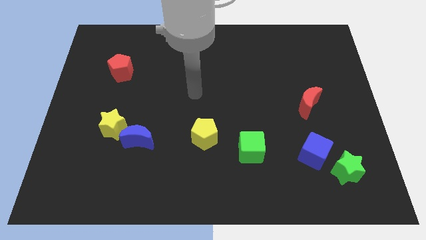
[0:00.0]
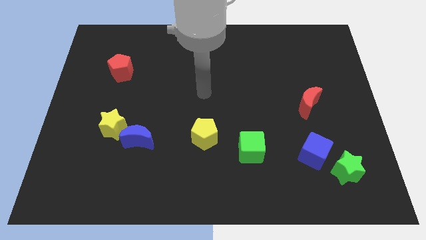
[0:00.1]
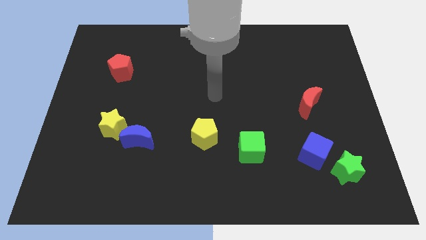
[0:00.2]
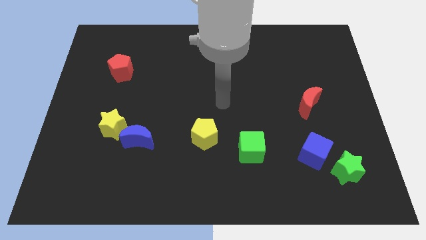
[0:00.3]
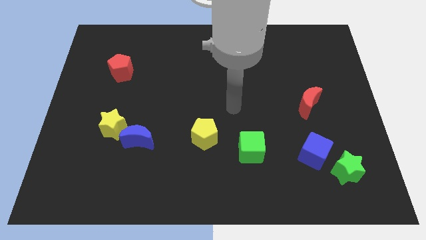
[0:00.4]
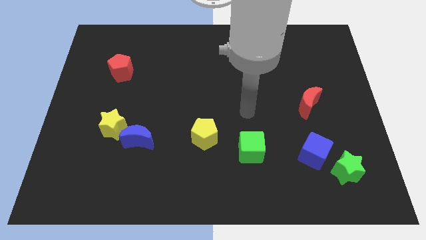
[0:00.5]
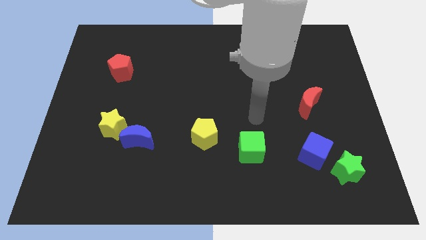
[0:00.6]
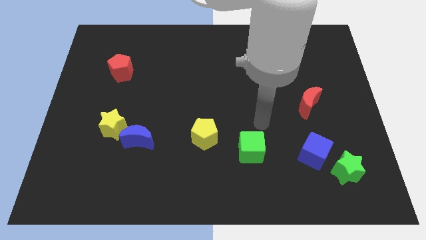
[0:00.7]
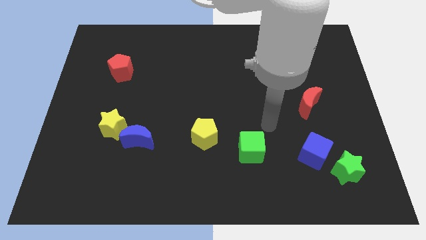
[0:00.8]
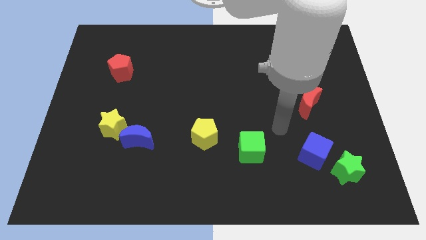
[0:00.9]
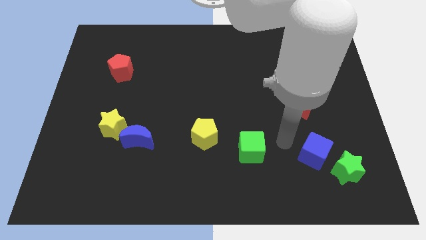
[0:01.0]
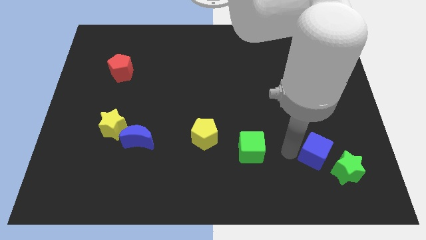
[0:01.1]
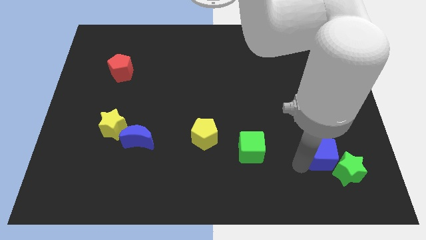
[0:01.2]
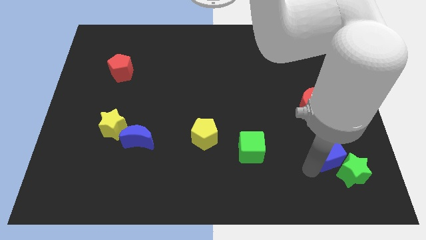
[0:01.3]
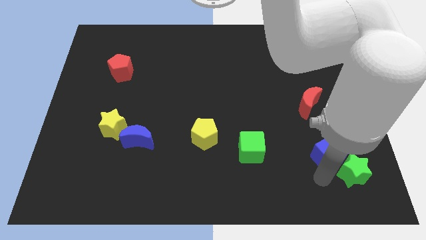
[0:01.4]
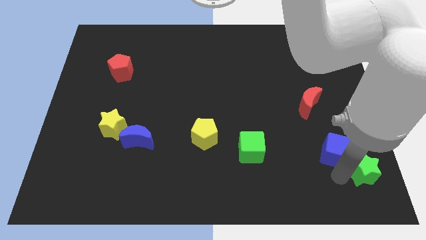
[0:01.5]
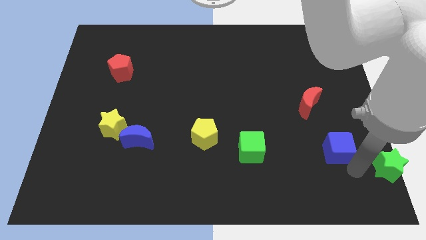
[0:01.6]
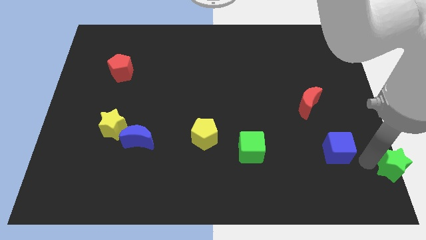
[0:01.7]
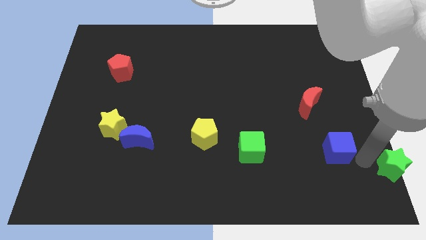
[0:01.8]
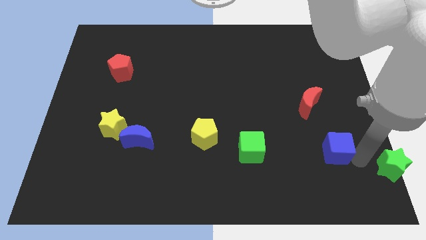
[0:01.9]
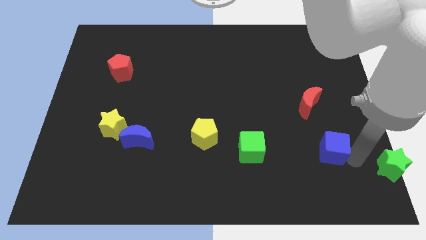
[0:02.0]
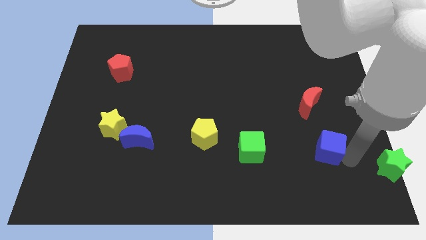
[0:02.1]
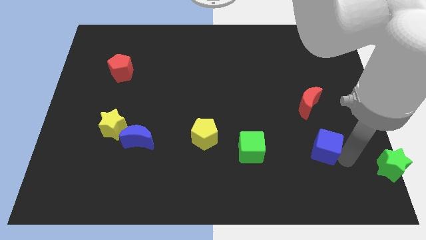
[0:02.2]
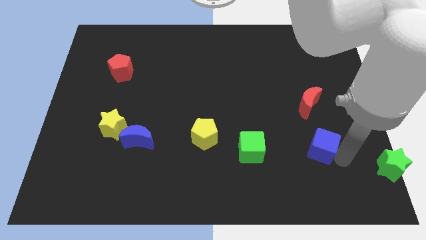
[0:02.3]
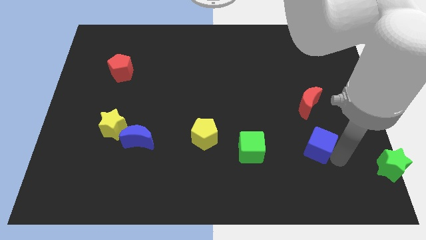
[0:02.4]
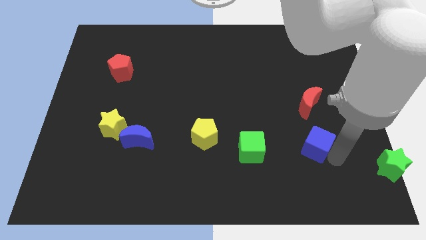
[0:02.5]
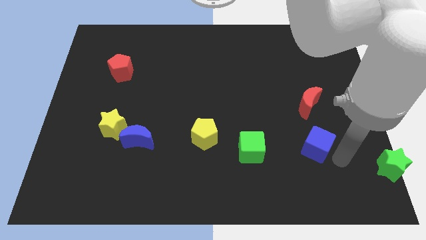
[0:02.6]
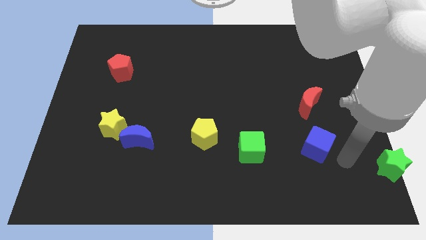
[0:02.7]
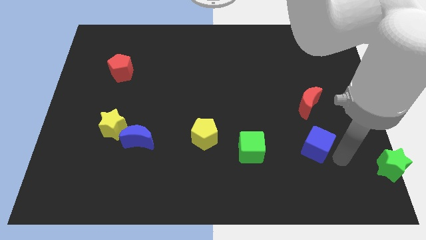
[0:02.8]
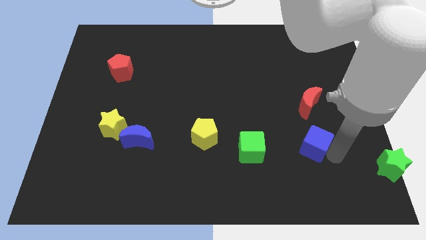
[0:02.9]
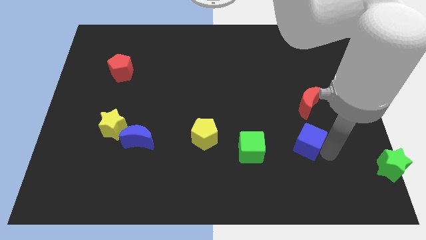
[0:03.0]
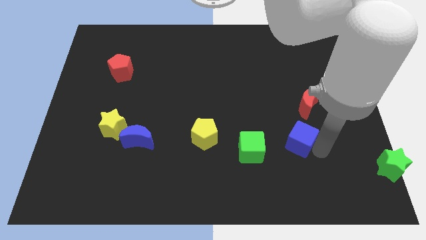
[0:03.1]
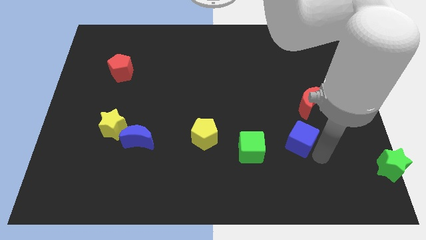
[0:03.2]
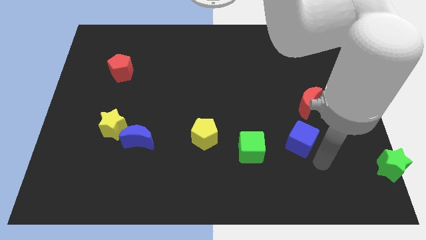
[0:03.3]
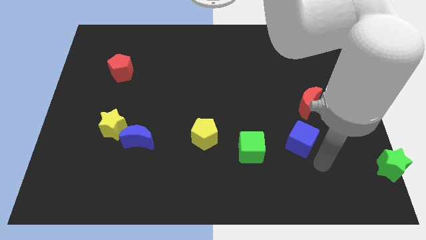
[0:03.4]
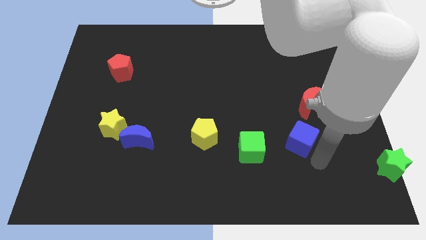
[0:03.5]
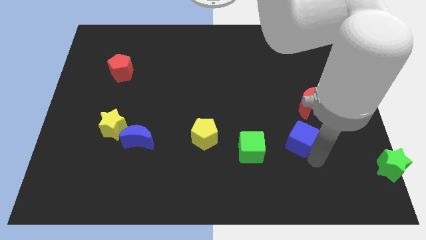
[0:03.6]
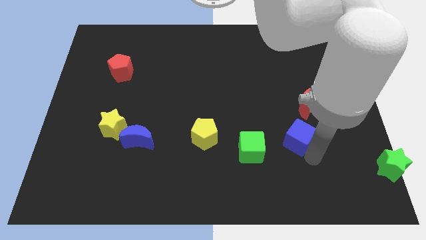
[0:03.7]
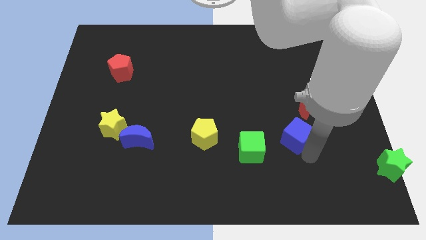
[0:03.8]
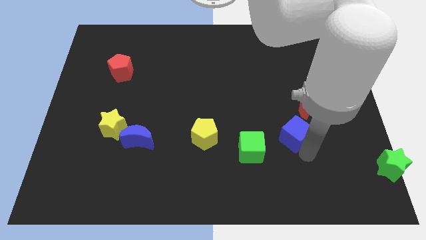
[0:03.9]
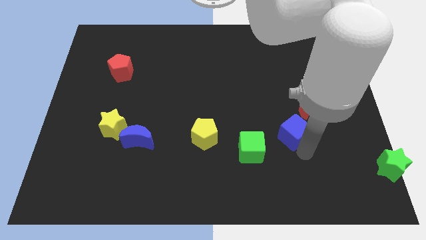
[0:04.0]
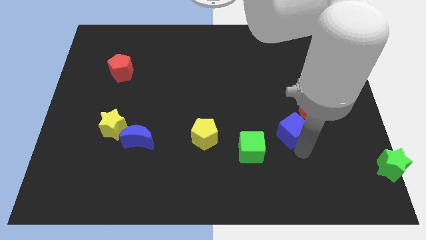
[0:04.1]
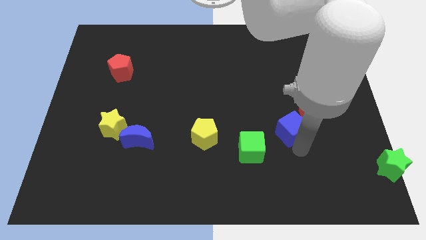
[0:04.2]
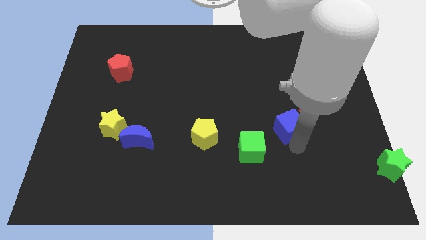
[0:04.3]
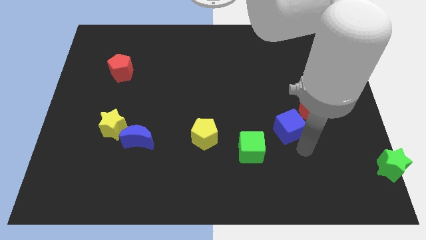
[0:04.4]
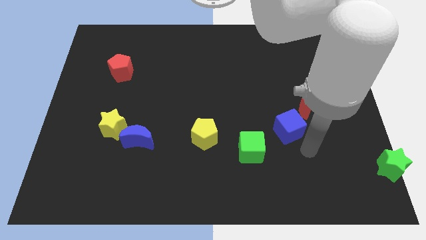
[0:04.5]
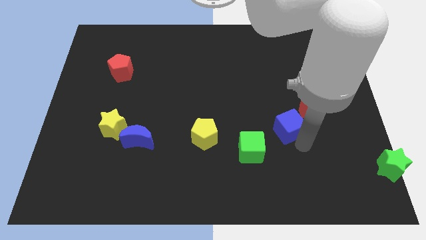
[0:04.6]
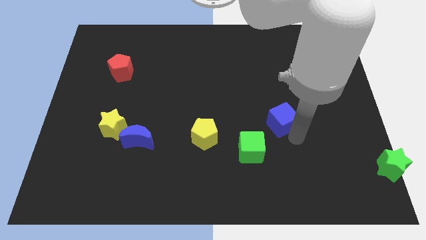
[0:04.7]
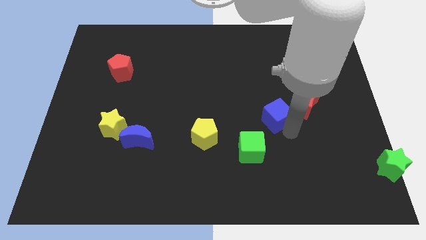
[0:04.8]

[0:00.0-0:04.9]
slide the blue cube to the left of the red moon

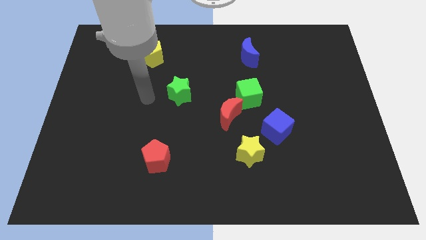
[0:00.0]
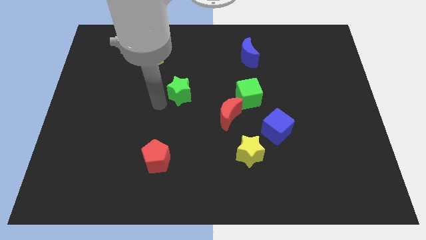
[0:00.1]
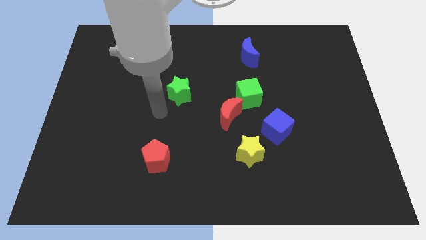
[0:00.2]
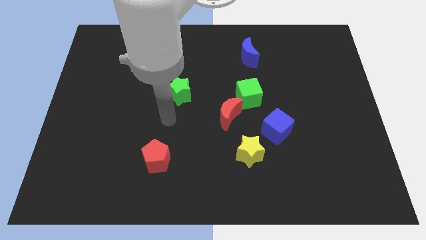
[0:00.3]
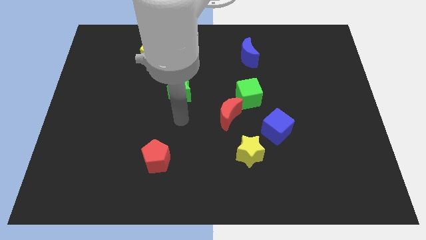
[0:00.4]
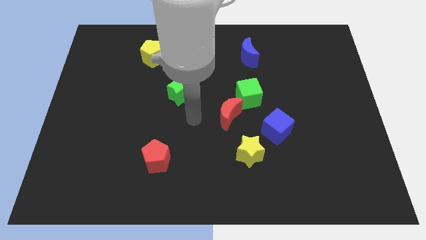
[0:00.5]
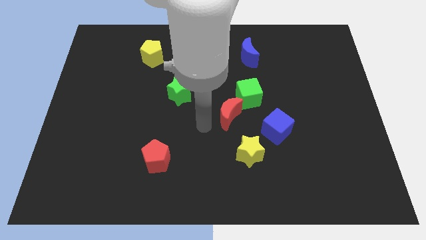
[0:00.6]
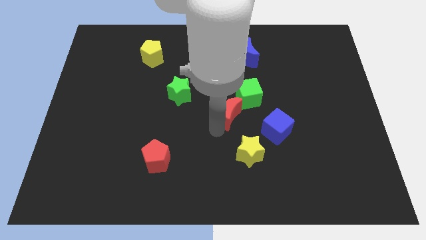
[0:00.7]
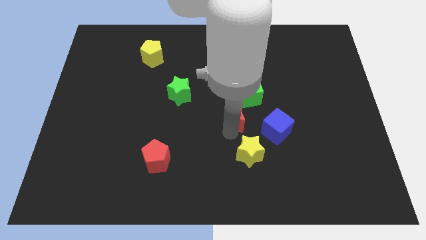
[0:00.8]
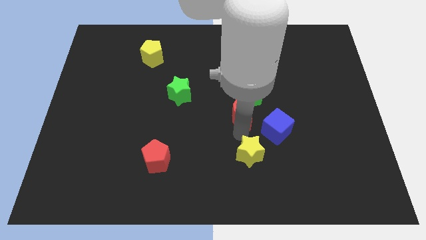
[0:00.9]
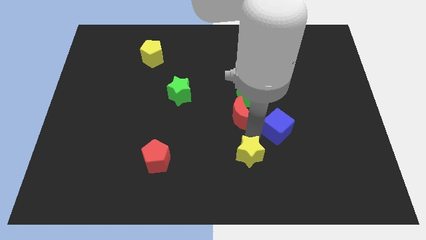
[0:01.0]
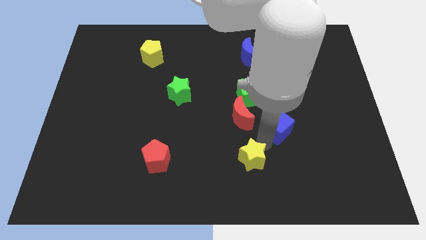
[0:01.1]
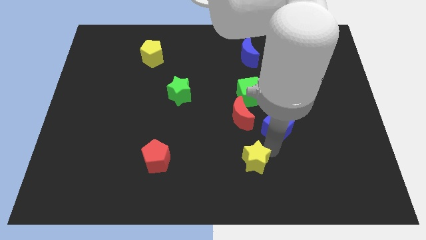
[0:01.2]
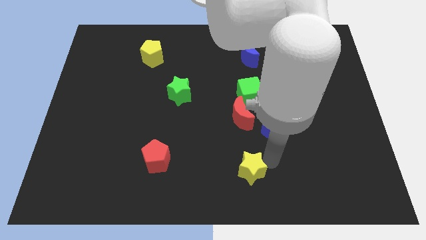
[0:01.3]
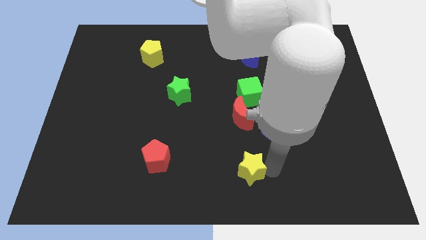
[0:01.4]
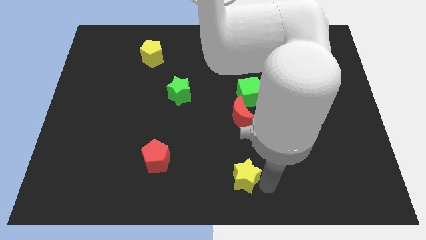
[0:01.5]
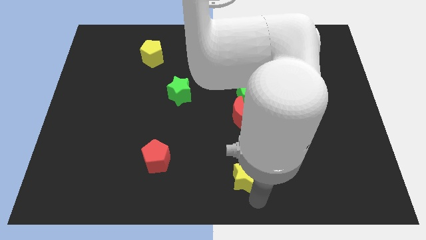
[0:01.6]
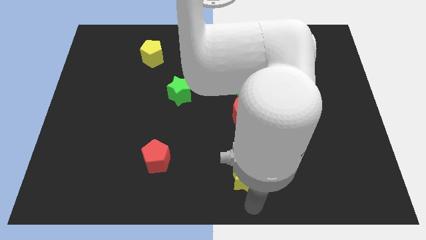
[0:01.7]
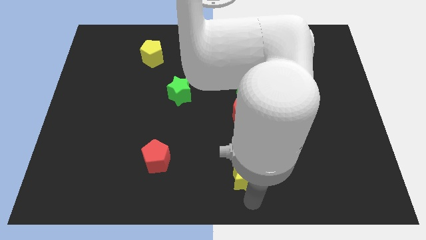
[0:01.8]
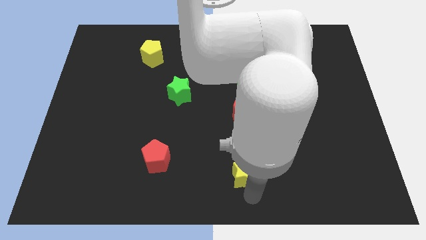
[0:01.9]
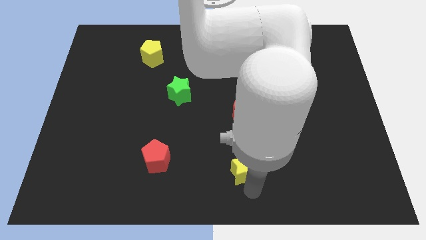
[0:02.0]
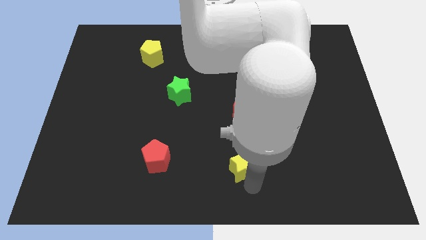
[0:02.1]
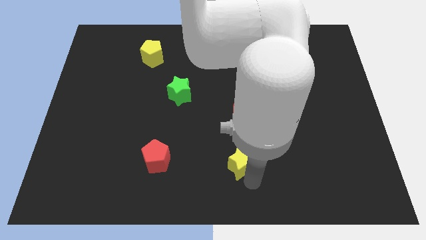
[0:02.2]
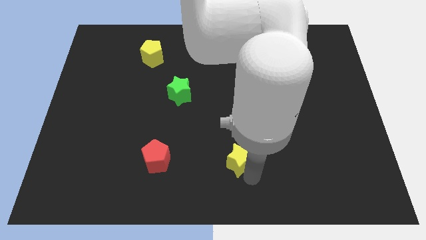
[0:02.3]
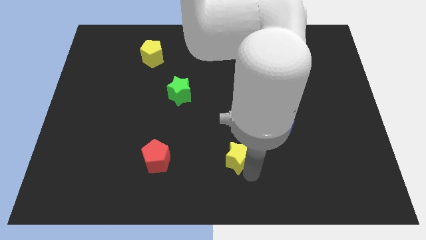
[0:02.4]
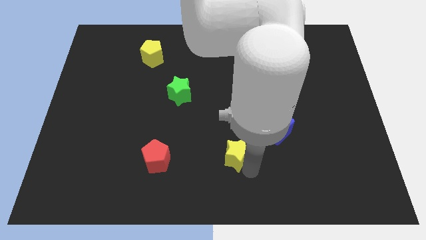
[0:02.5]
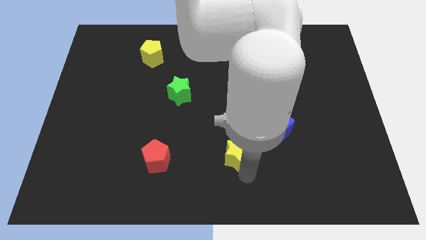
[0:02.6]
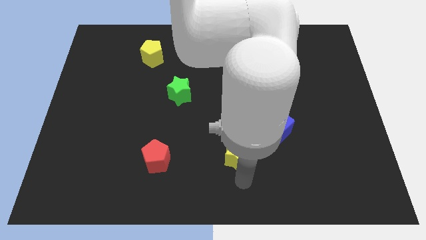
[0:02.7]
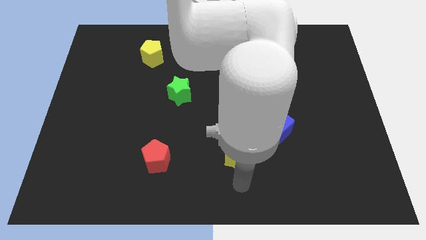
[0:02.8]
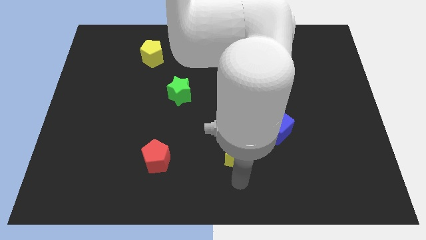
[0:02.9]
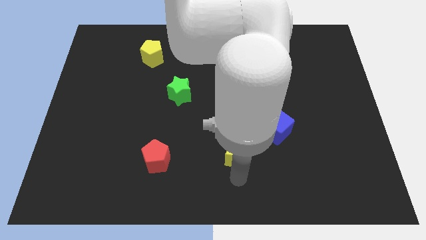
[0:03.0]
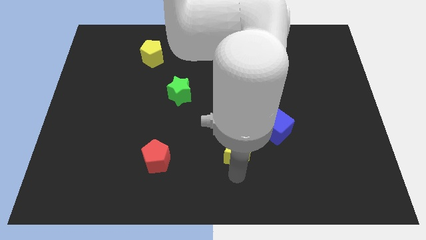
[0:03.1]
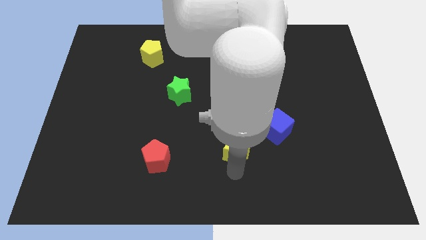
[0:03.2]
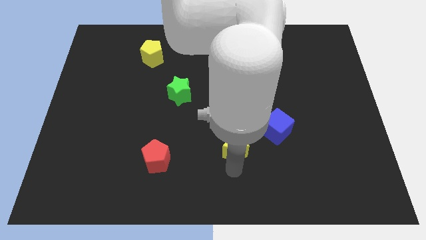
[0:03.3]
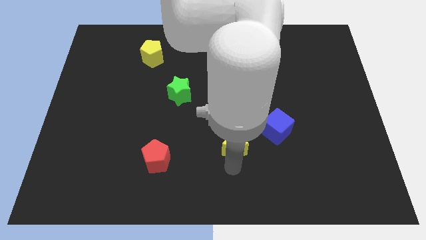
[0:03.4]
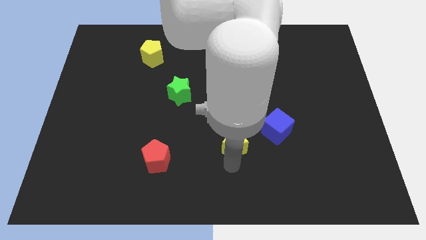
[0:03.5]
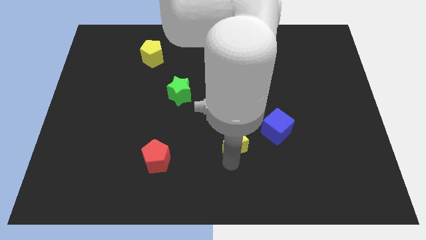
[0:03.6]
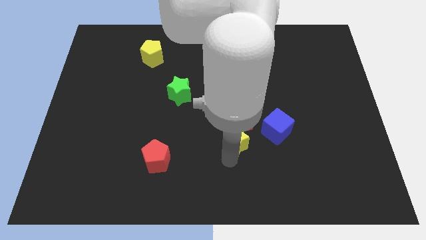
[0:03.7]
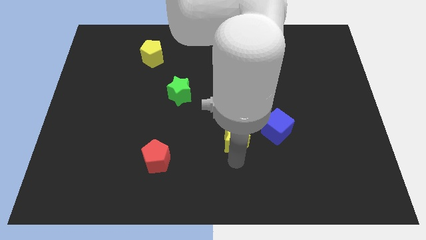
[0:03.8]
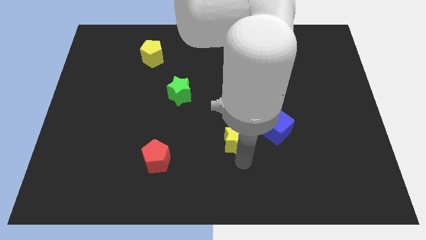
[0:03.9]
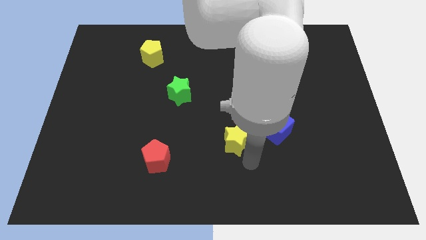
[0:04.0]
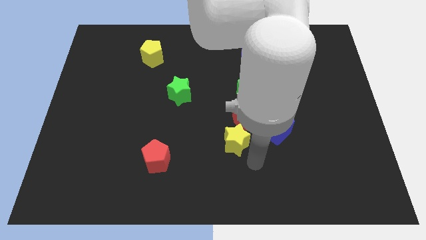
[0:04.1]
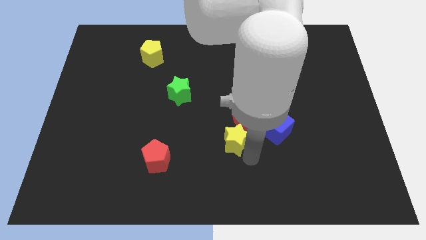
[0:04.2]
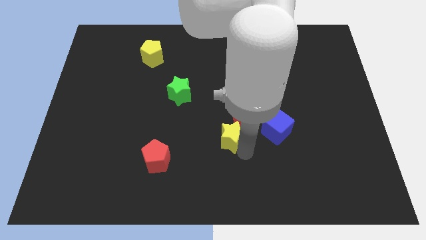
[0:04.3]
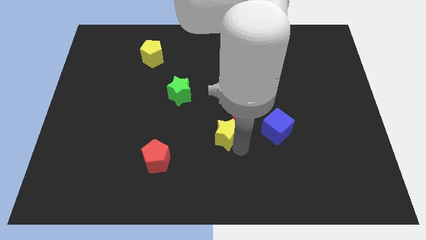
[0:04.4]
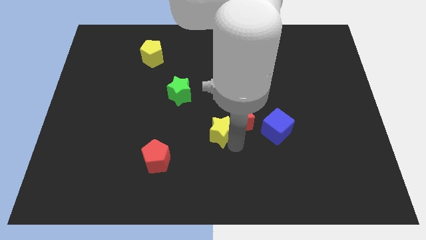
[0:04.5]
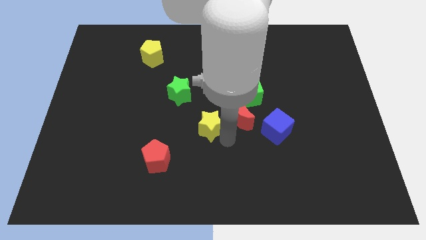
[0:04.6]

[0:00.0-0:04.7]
slide the yellow star to the bottom right of the green star
